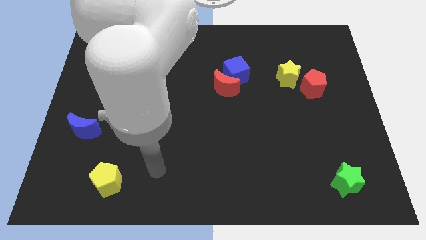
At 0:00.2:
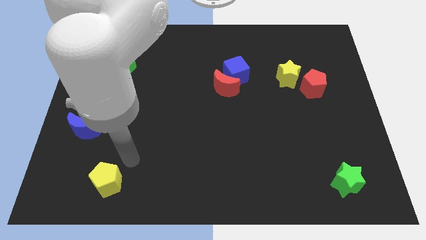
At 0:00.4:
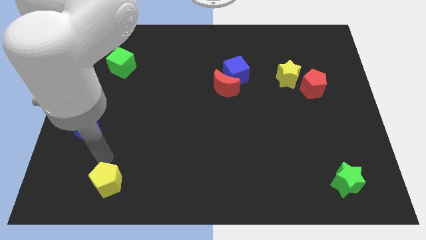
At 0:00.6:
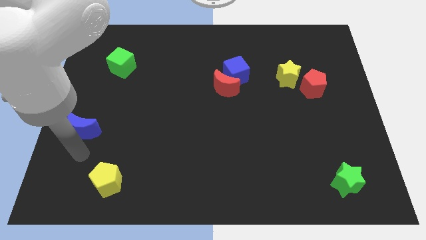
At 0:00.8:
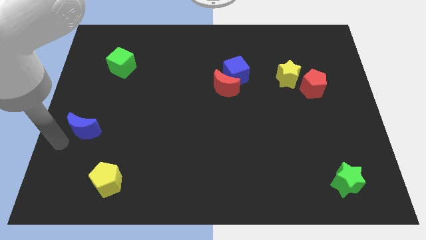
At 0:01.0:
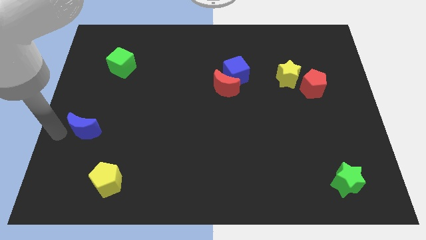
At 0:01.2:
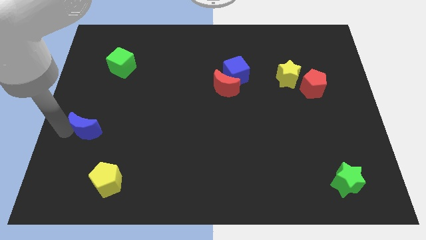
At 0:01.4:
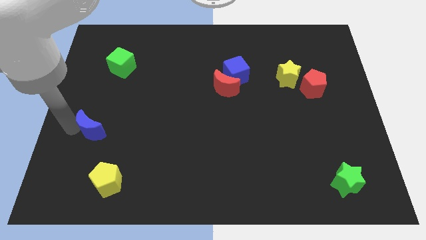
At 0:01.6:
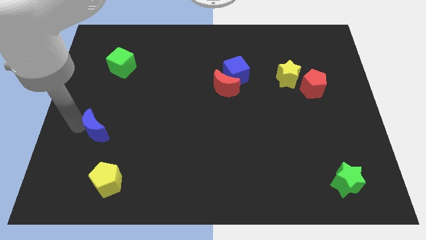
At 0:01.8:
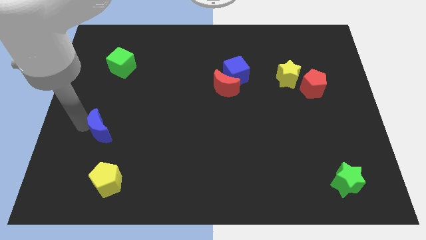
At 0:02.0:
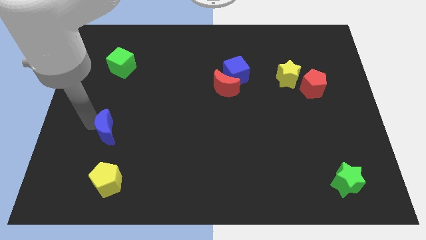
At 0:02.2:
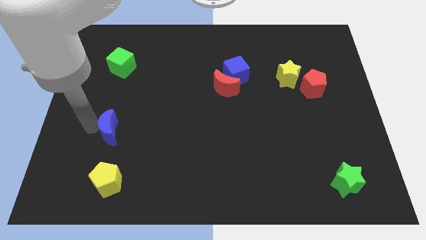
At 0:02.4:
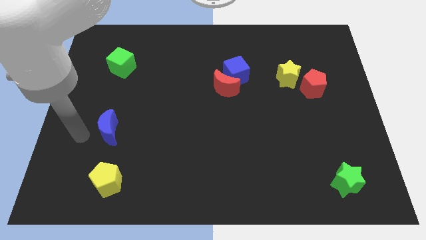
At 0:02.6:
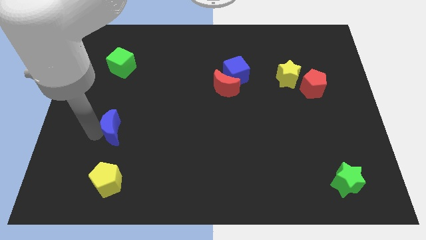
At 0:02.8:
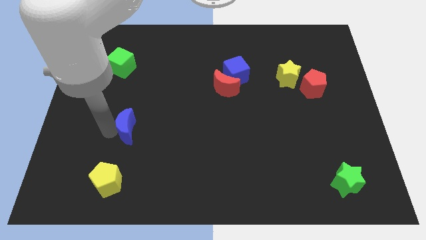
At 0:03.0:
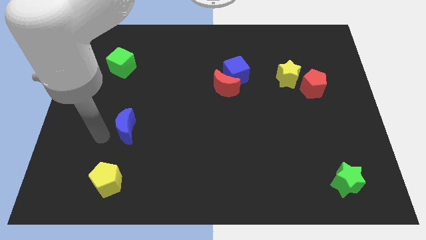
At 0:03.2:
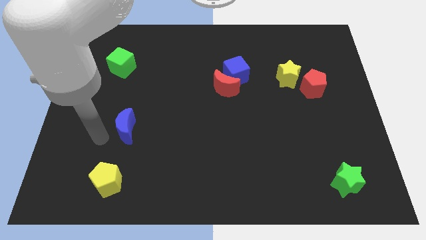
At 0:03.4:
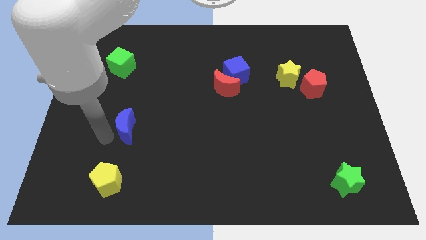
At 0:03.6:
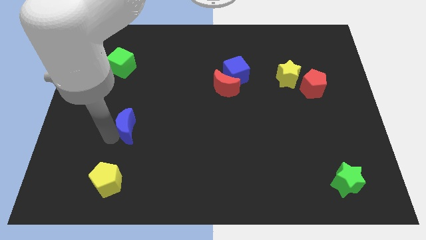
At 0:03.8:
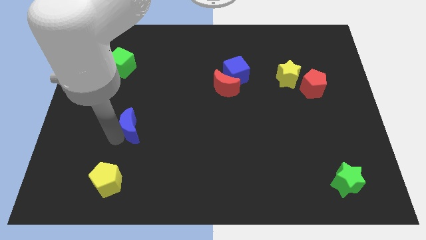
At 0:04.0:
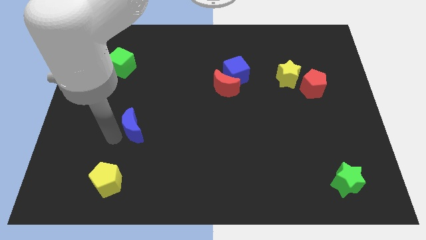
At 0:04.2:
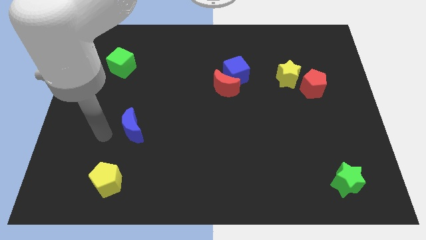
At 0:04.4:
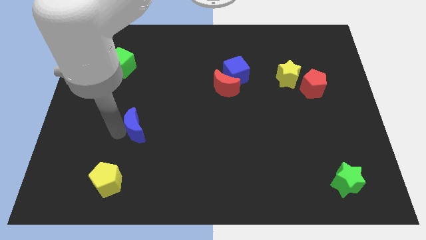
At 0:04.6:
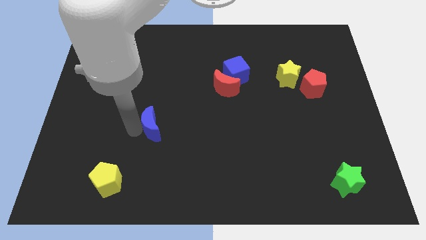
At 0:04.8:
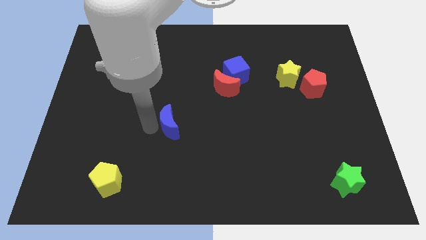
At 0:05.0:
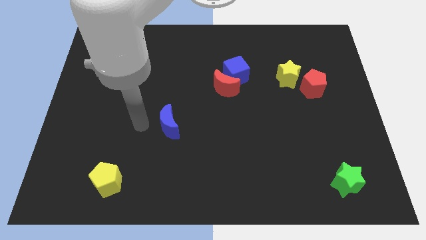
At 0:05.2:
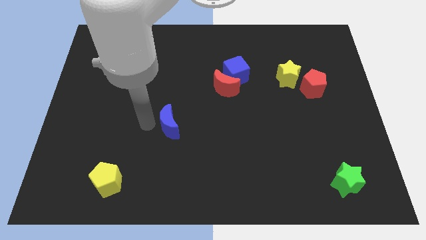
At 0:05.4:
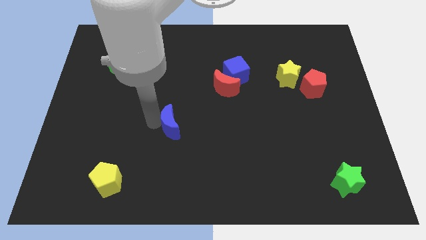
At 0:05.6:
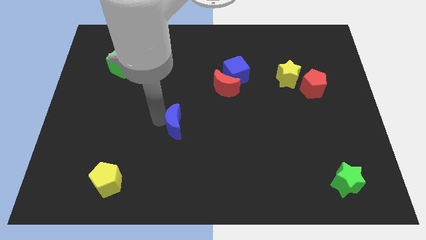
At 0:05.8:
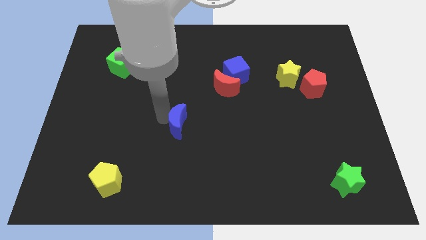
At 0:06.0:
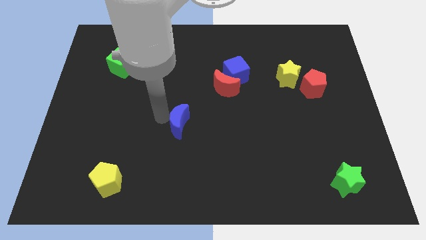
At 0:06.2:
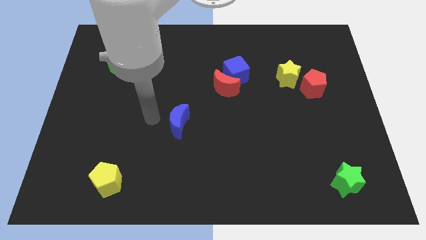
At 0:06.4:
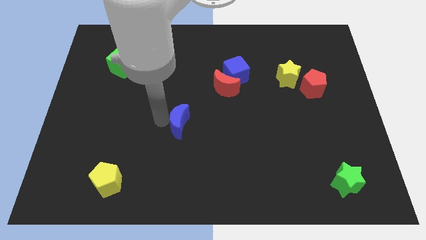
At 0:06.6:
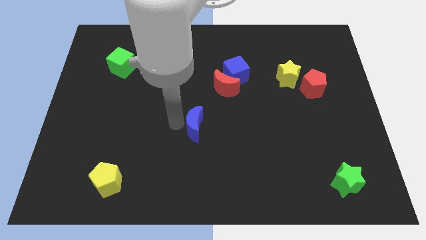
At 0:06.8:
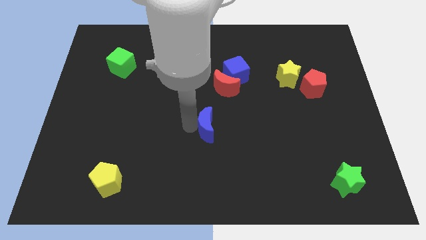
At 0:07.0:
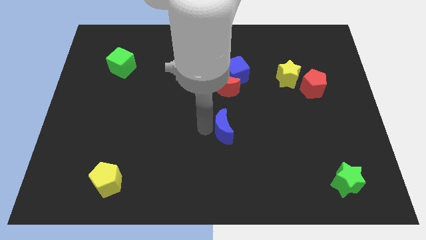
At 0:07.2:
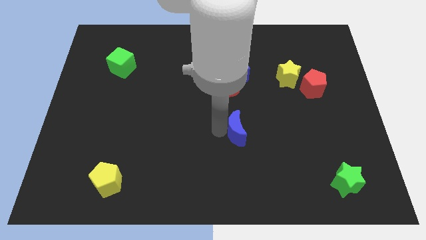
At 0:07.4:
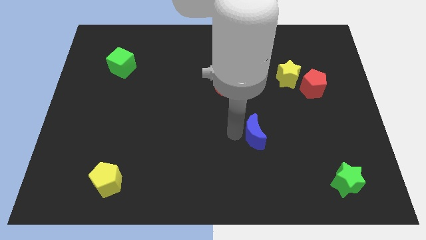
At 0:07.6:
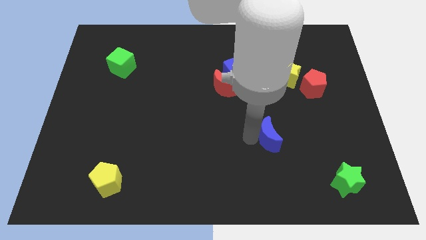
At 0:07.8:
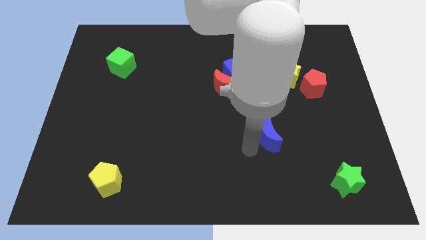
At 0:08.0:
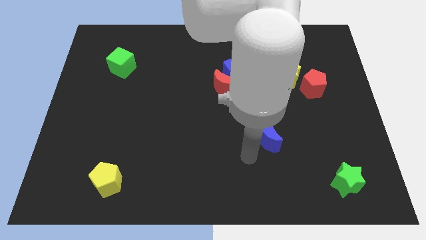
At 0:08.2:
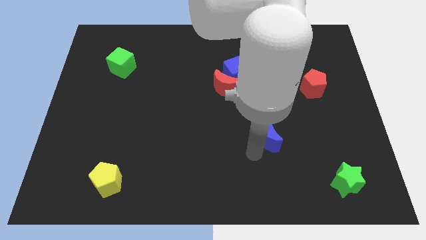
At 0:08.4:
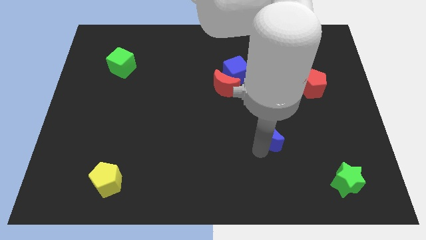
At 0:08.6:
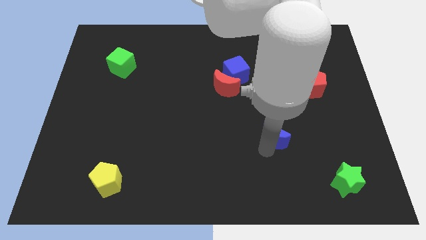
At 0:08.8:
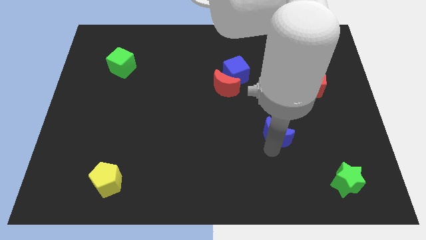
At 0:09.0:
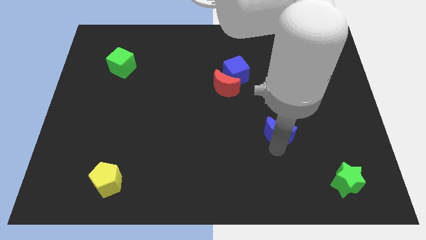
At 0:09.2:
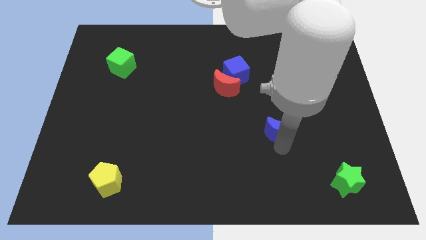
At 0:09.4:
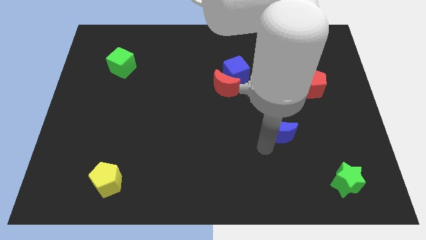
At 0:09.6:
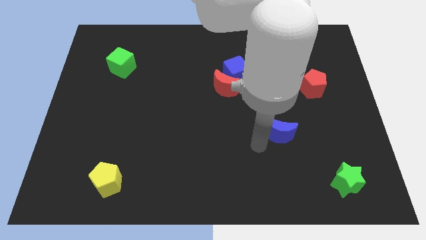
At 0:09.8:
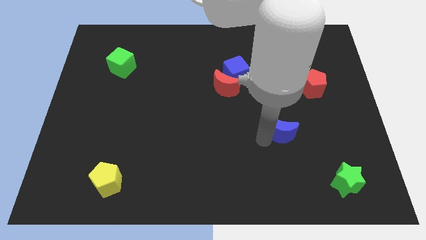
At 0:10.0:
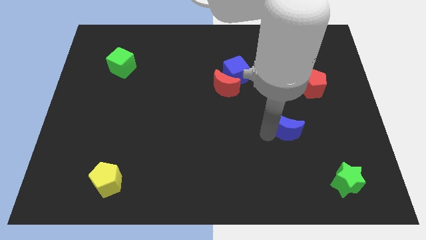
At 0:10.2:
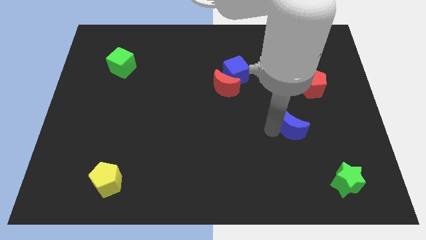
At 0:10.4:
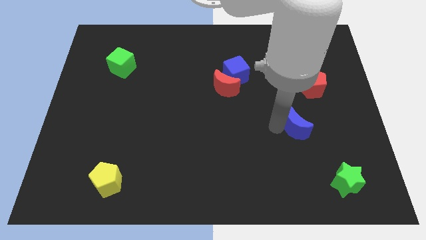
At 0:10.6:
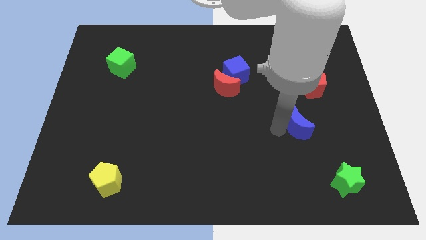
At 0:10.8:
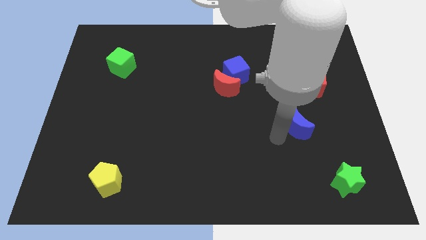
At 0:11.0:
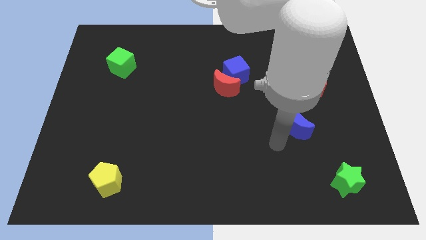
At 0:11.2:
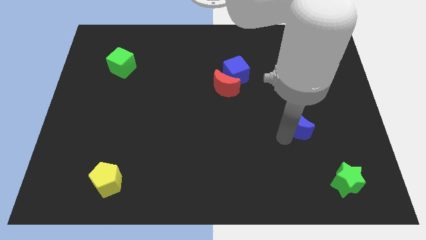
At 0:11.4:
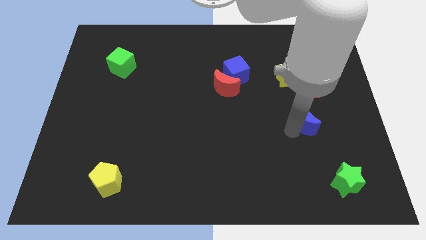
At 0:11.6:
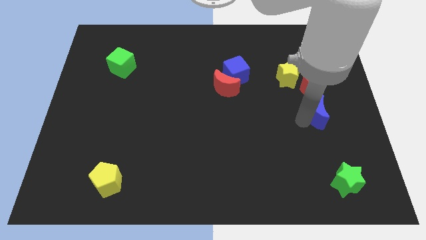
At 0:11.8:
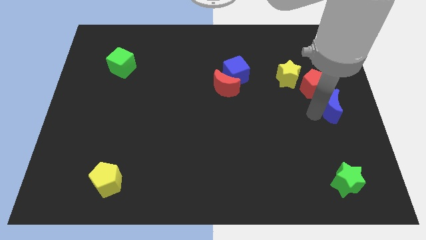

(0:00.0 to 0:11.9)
slide the blue moon to the center right

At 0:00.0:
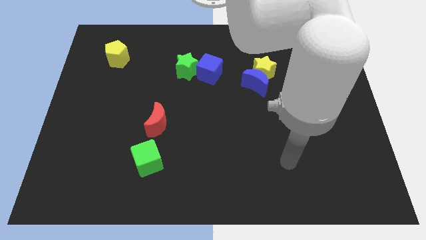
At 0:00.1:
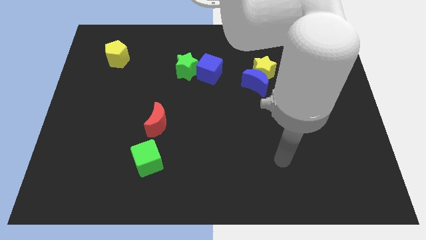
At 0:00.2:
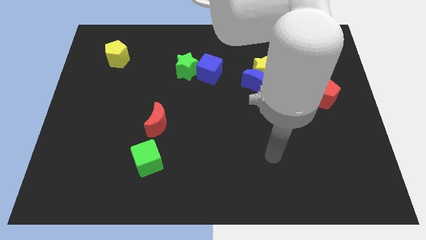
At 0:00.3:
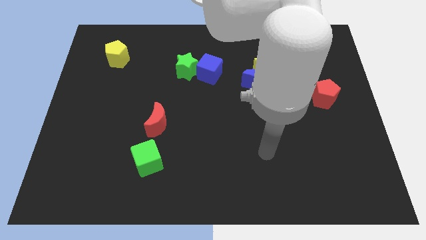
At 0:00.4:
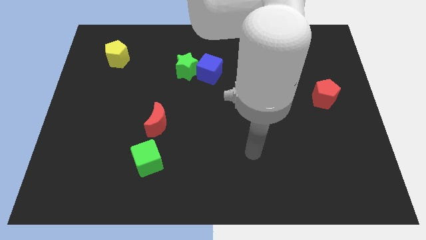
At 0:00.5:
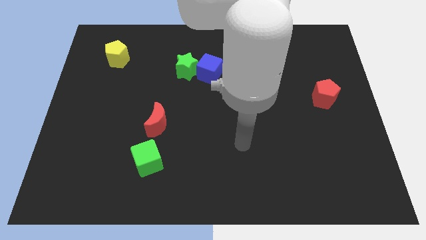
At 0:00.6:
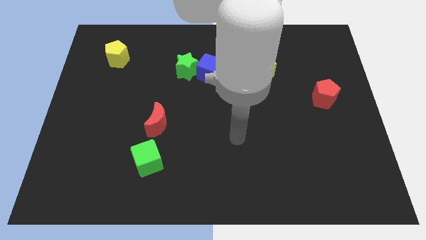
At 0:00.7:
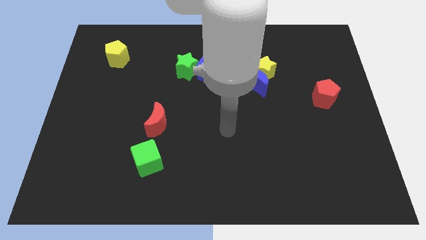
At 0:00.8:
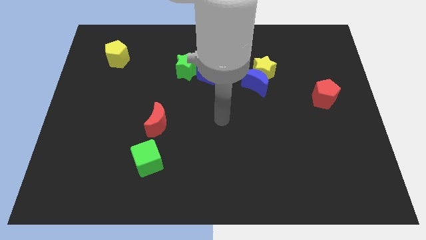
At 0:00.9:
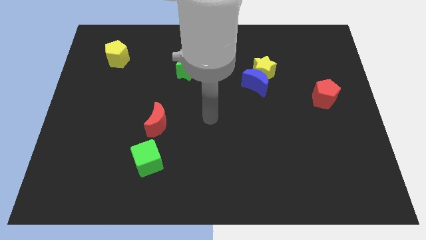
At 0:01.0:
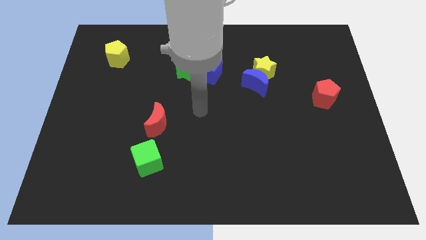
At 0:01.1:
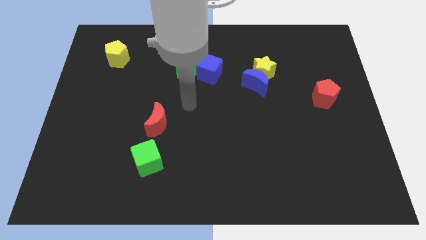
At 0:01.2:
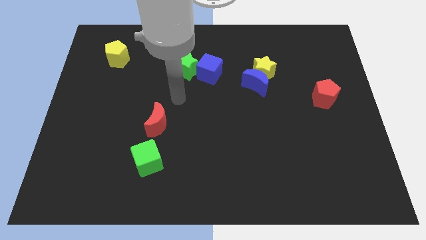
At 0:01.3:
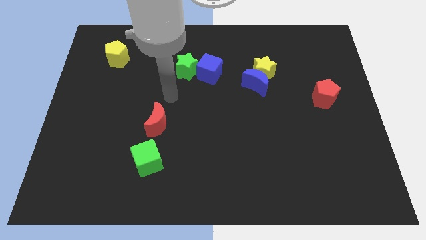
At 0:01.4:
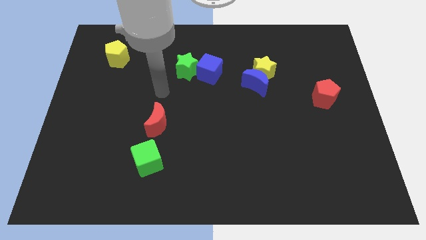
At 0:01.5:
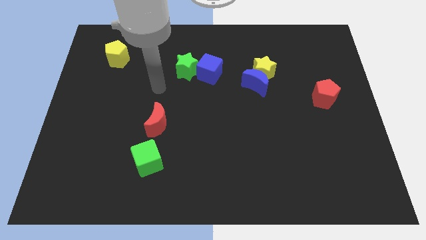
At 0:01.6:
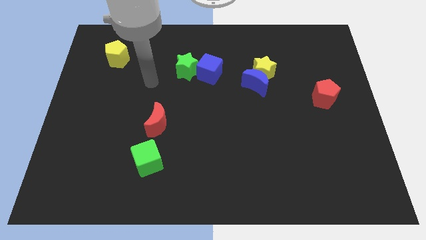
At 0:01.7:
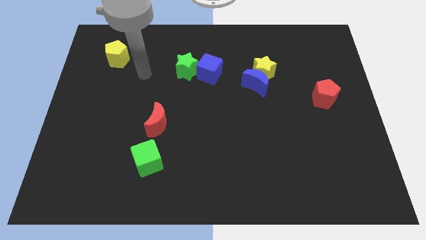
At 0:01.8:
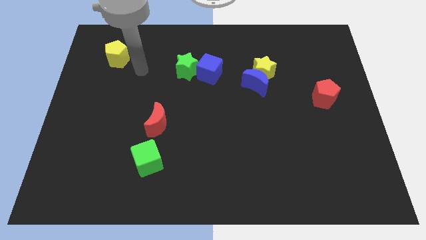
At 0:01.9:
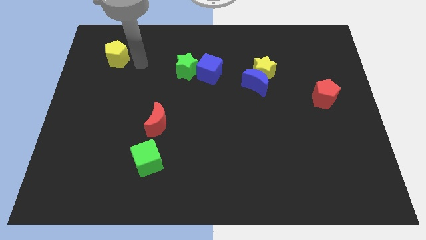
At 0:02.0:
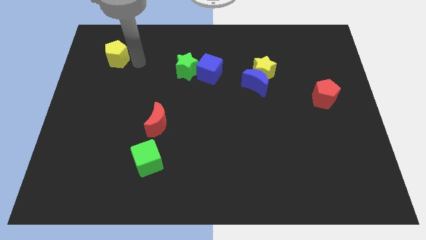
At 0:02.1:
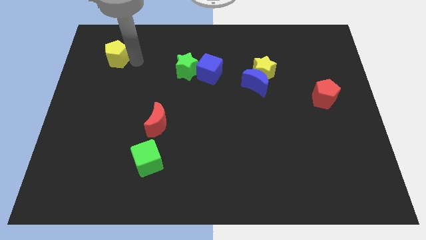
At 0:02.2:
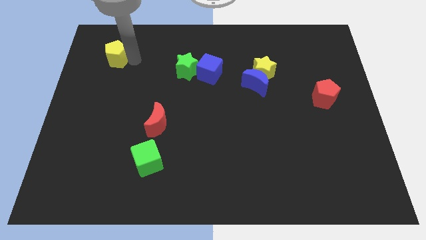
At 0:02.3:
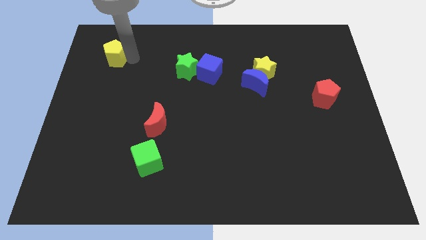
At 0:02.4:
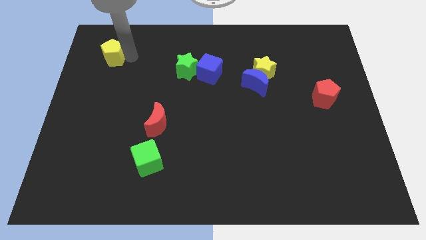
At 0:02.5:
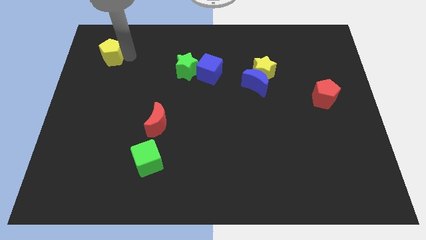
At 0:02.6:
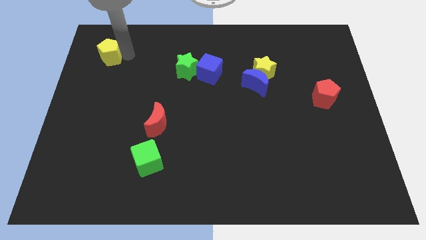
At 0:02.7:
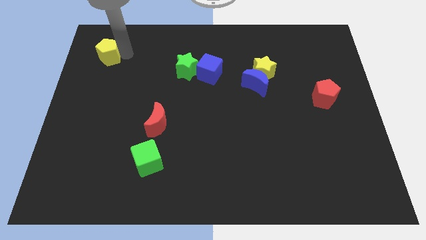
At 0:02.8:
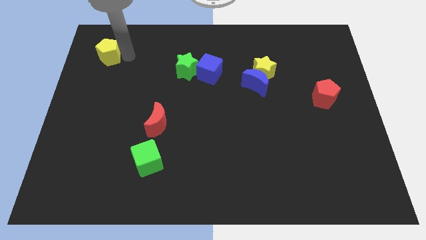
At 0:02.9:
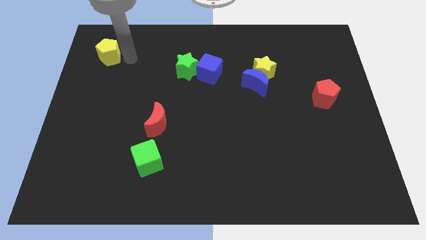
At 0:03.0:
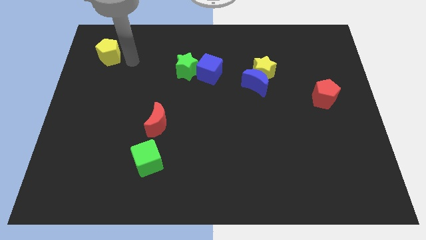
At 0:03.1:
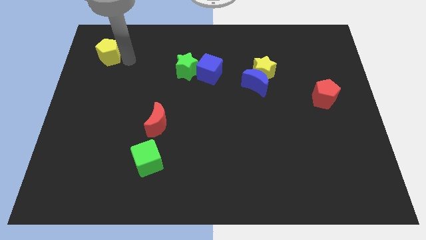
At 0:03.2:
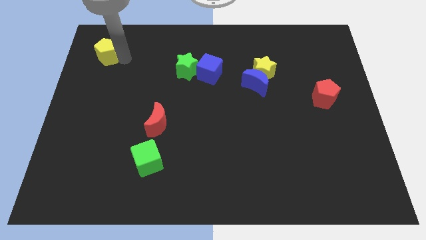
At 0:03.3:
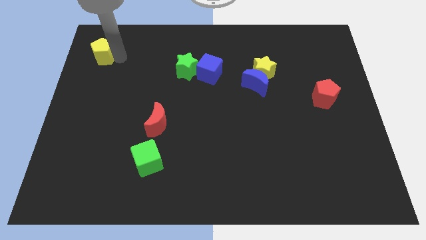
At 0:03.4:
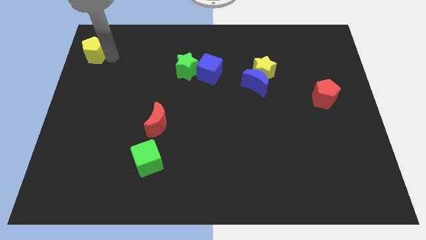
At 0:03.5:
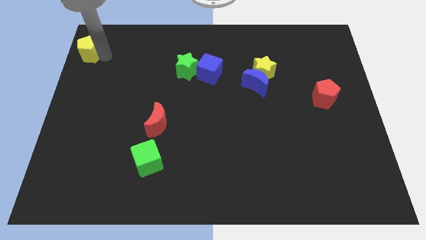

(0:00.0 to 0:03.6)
move the yellow pentagon to the top left corner
